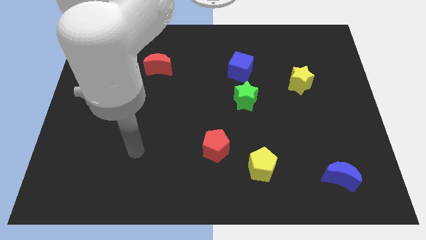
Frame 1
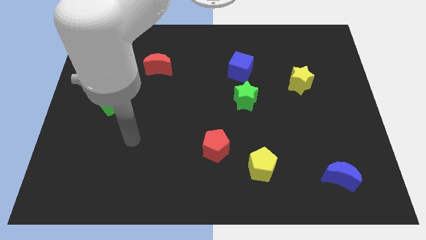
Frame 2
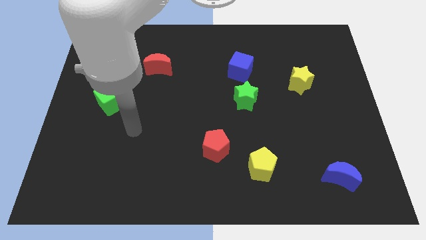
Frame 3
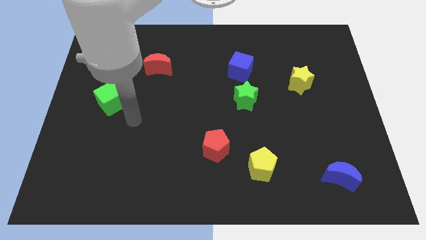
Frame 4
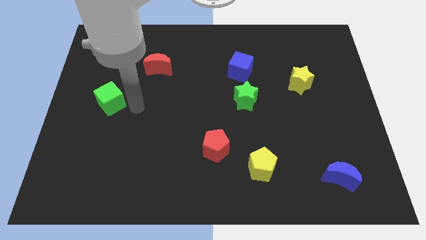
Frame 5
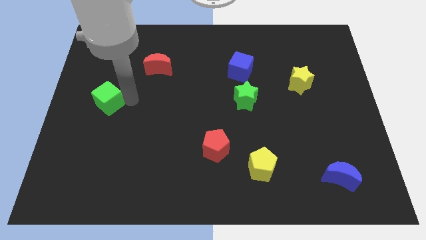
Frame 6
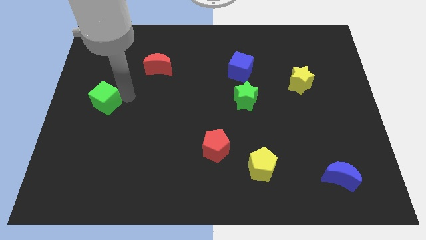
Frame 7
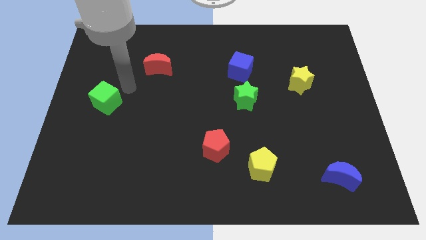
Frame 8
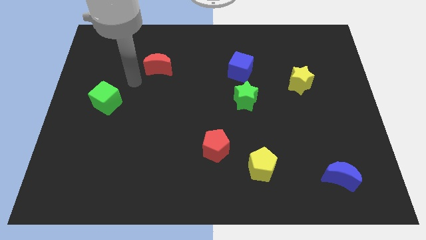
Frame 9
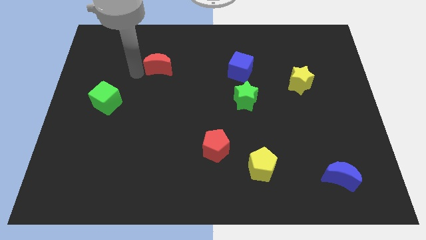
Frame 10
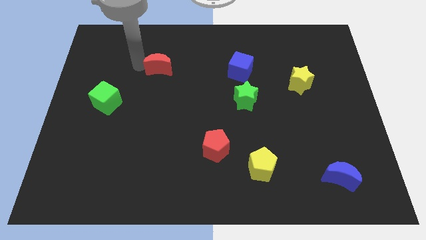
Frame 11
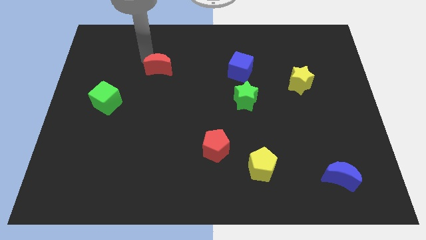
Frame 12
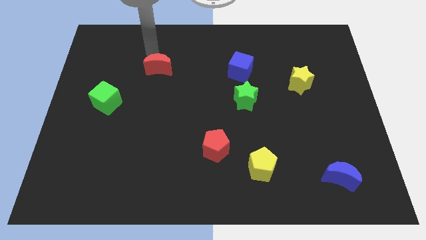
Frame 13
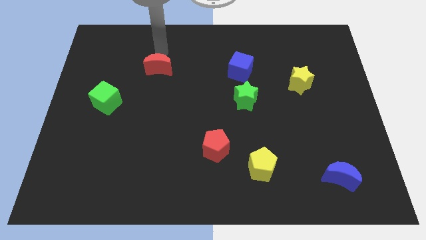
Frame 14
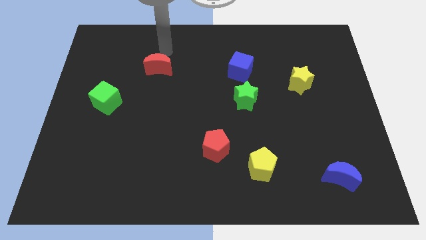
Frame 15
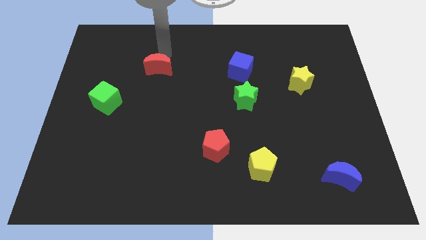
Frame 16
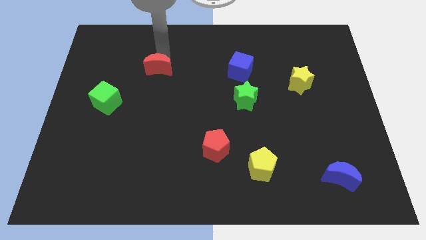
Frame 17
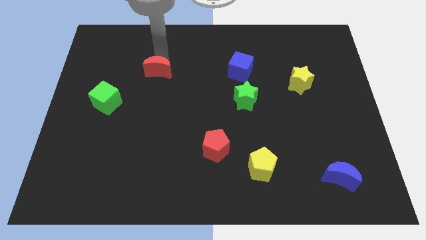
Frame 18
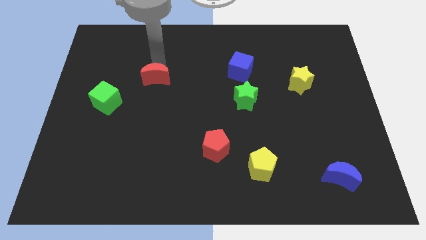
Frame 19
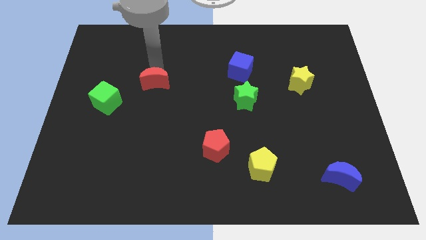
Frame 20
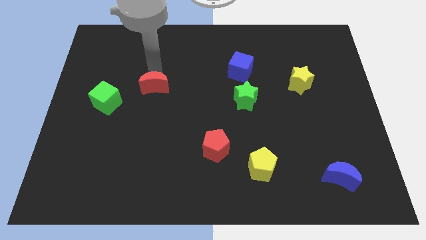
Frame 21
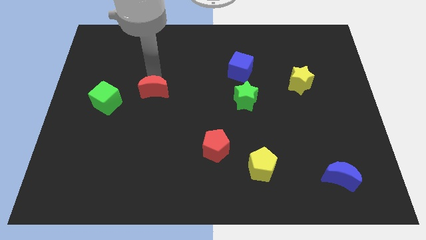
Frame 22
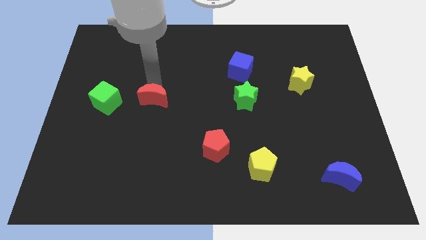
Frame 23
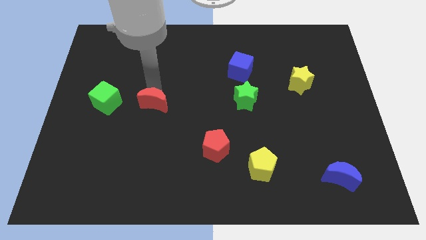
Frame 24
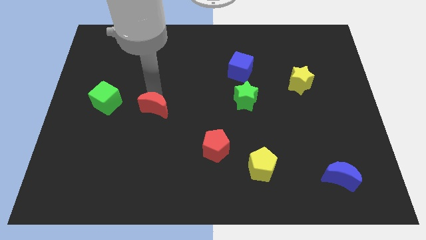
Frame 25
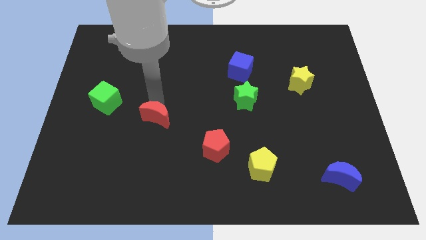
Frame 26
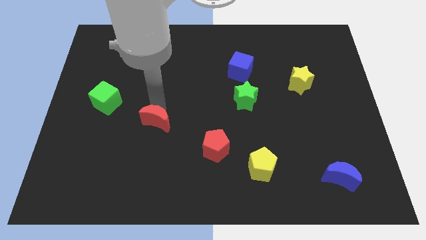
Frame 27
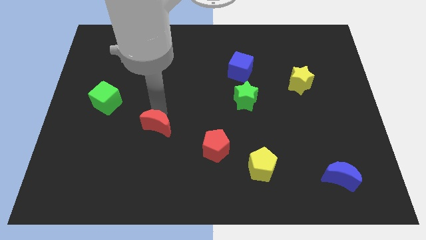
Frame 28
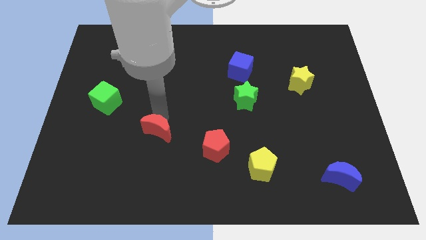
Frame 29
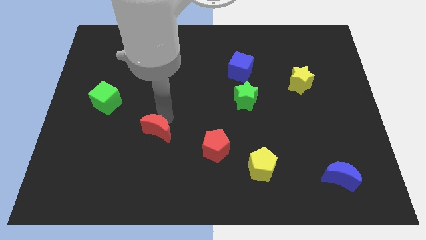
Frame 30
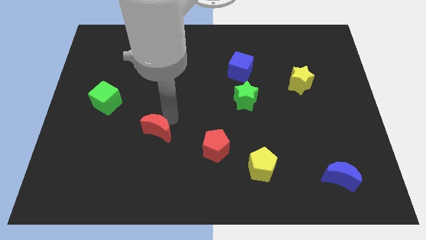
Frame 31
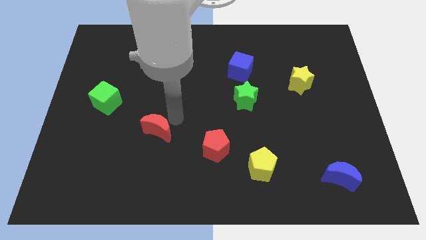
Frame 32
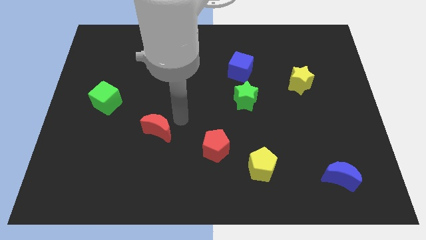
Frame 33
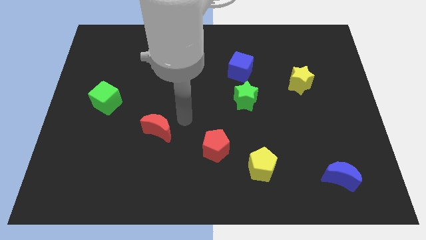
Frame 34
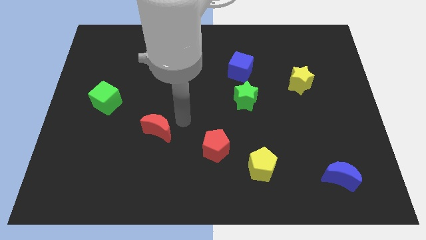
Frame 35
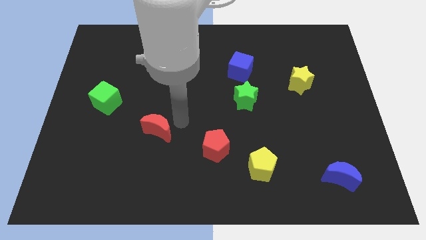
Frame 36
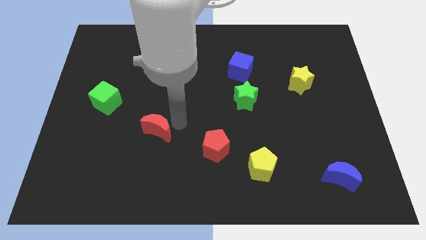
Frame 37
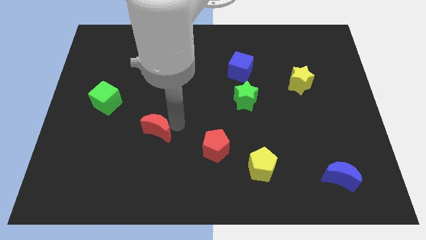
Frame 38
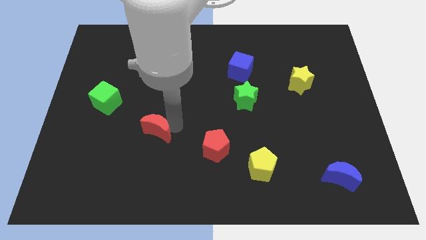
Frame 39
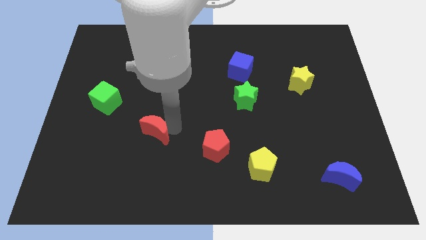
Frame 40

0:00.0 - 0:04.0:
push the red moon downwards

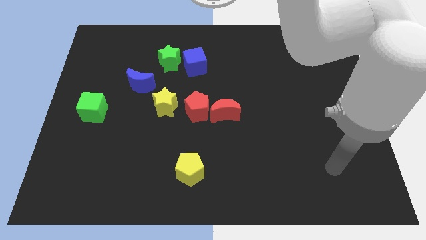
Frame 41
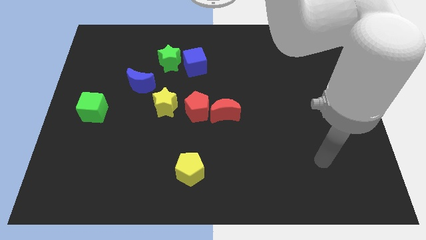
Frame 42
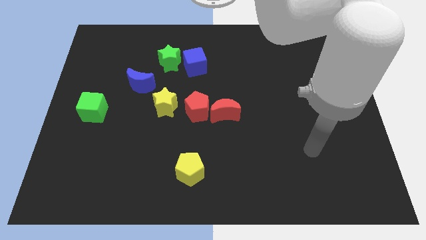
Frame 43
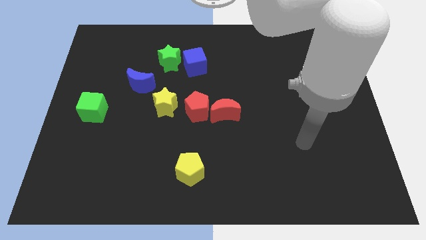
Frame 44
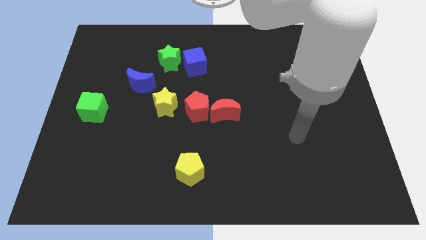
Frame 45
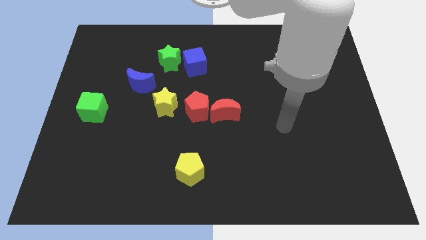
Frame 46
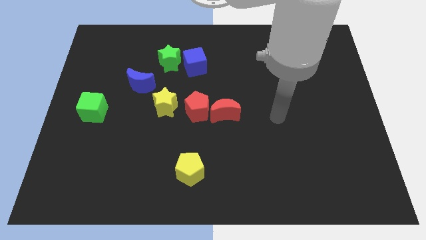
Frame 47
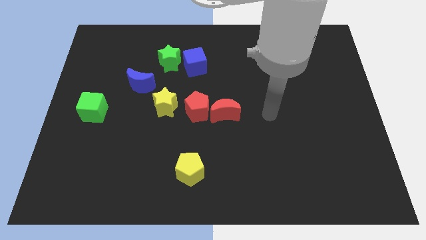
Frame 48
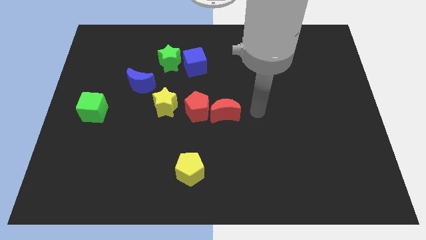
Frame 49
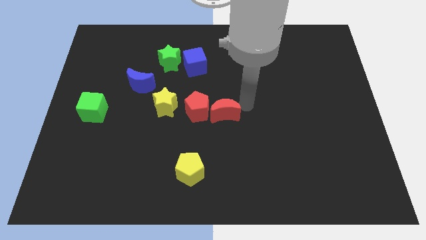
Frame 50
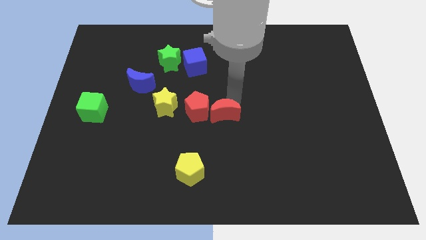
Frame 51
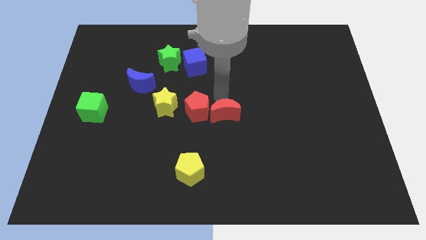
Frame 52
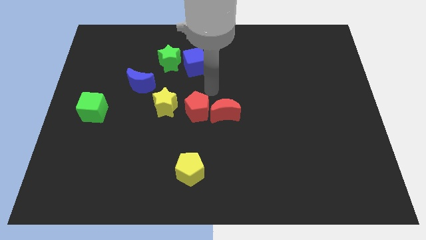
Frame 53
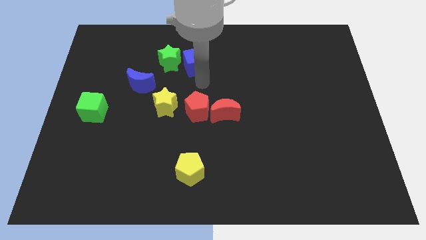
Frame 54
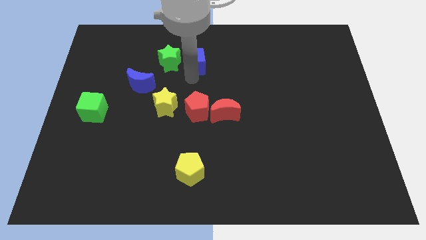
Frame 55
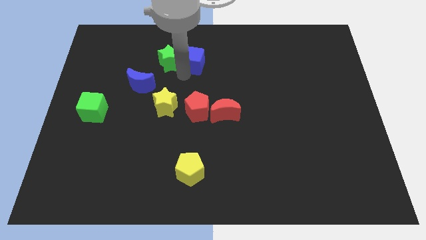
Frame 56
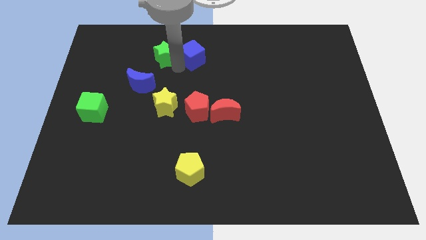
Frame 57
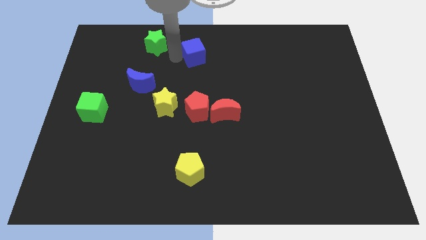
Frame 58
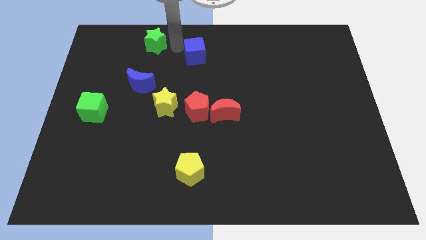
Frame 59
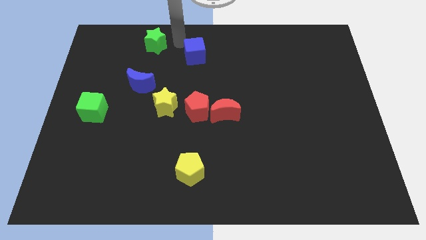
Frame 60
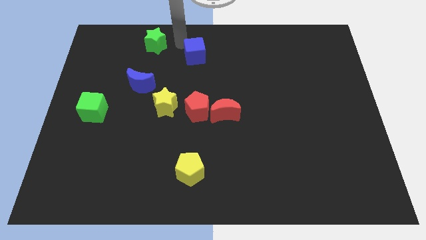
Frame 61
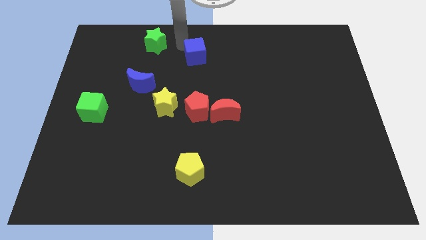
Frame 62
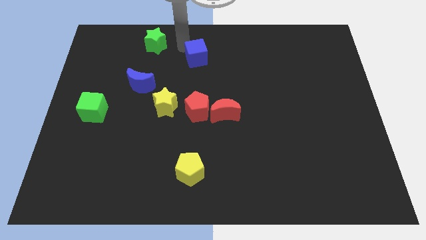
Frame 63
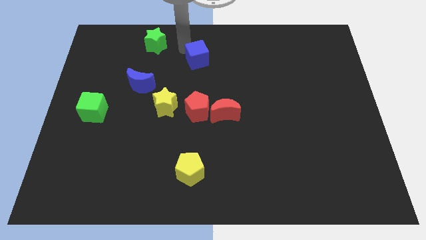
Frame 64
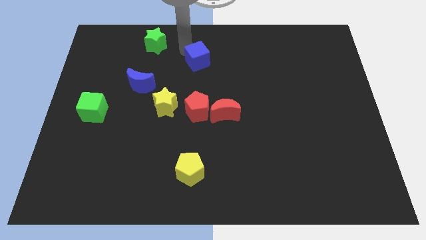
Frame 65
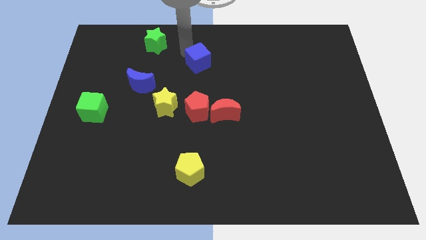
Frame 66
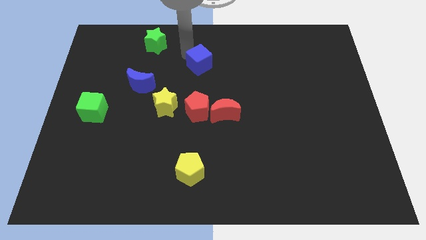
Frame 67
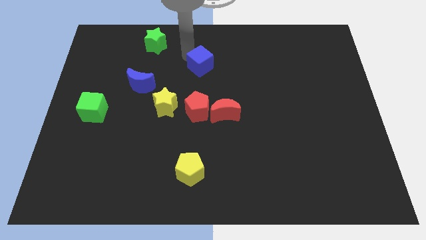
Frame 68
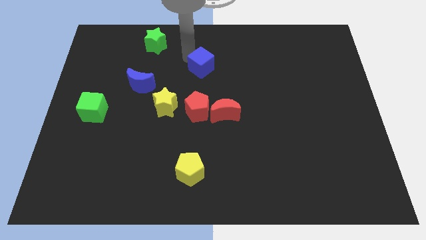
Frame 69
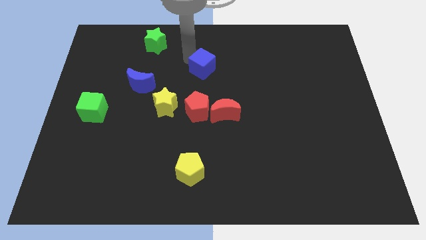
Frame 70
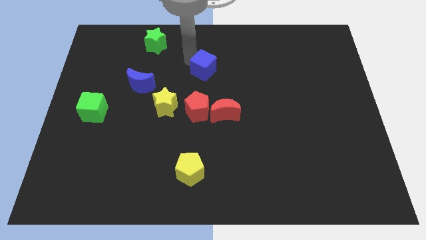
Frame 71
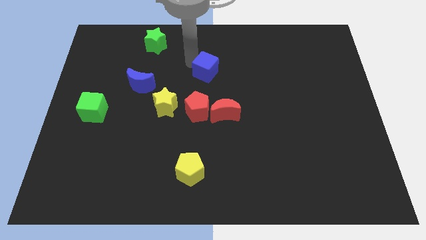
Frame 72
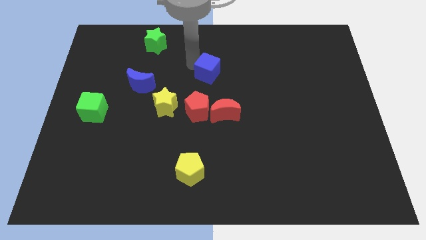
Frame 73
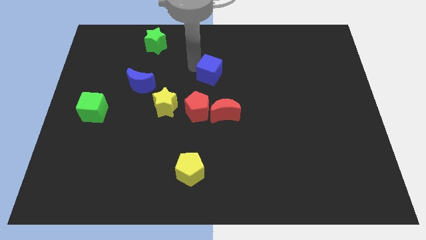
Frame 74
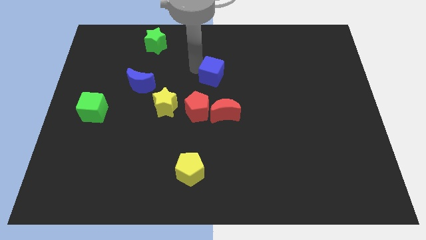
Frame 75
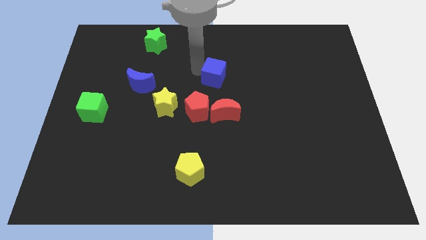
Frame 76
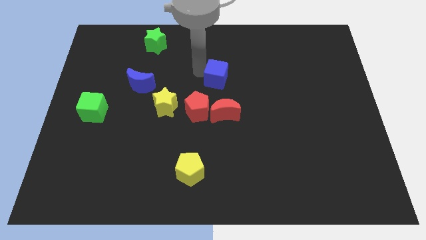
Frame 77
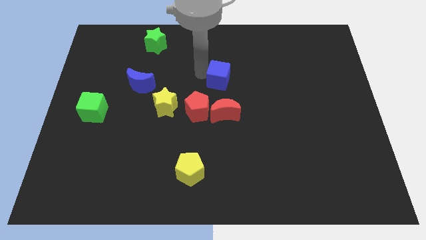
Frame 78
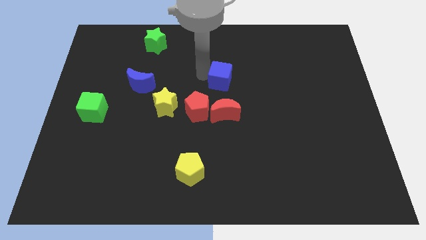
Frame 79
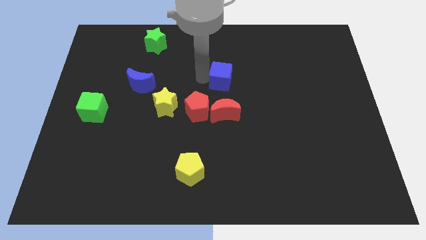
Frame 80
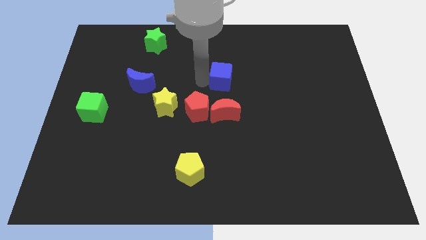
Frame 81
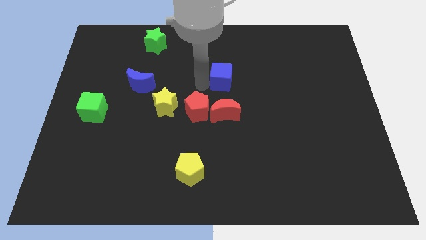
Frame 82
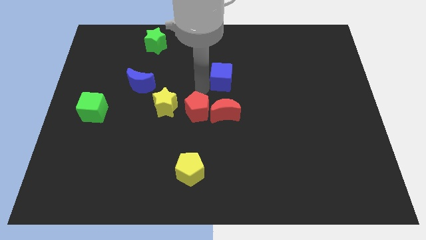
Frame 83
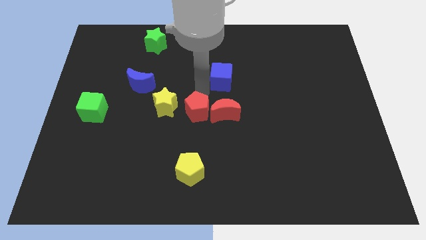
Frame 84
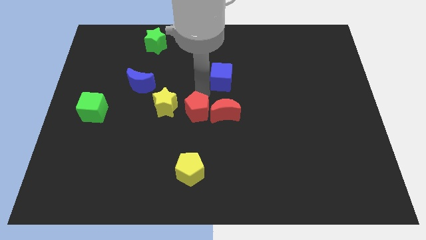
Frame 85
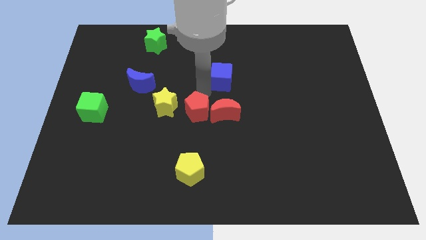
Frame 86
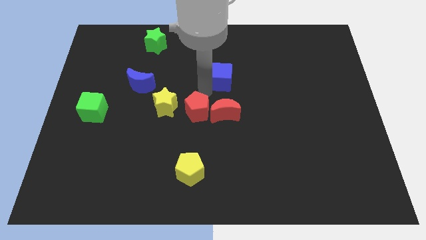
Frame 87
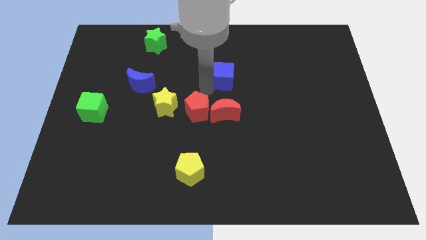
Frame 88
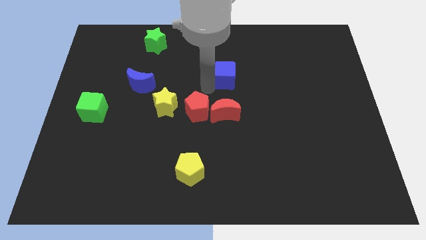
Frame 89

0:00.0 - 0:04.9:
slightly slide the blue cube right
